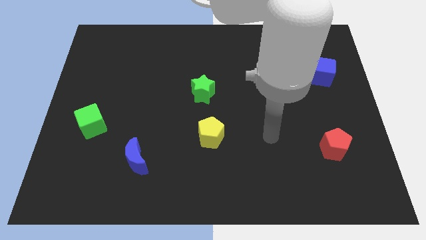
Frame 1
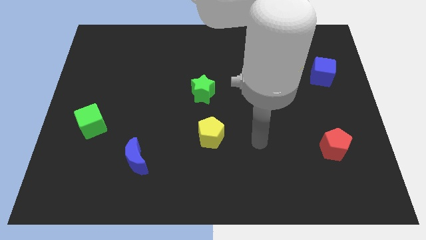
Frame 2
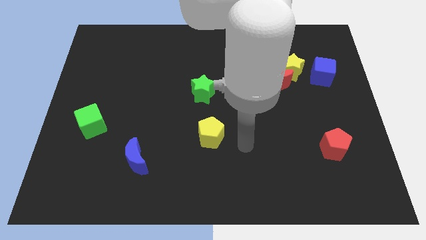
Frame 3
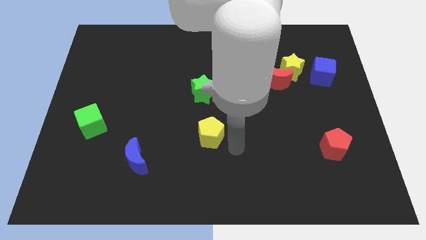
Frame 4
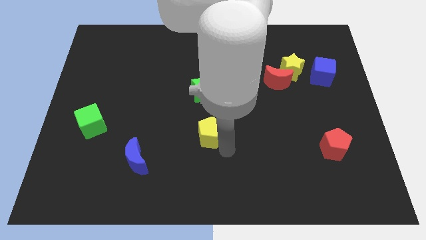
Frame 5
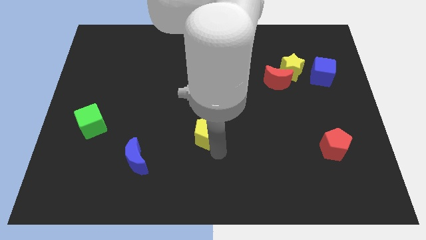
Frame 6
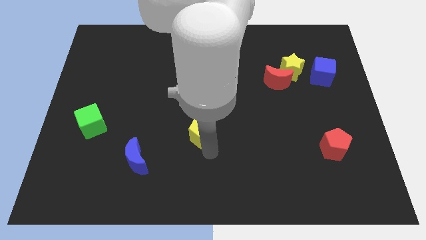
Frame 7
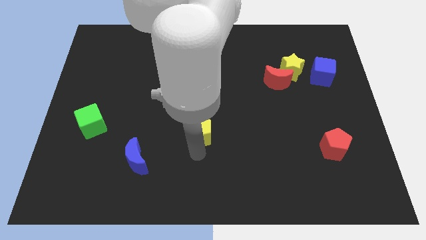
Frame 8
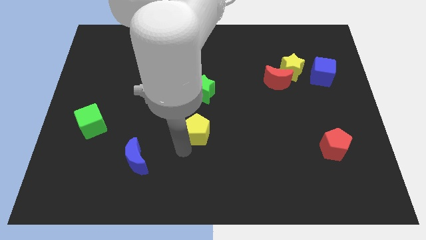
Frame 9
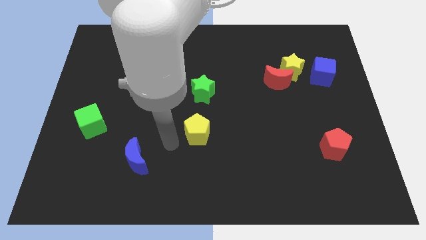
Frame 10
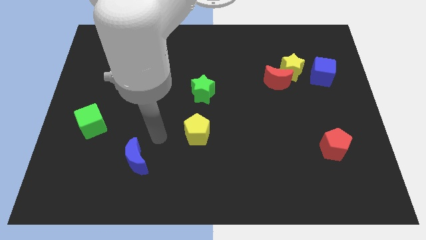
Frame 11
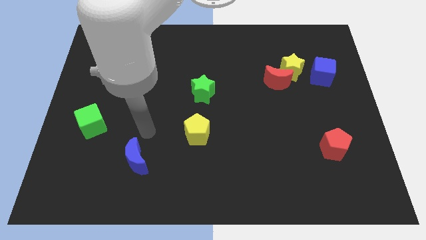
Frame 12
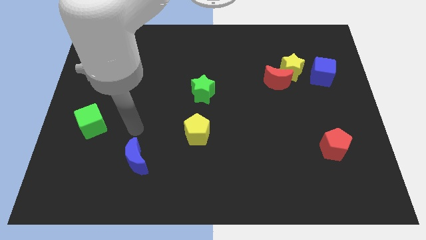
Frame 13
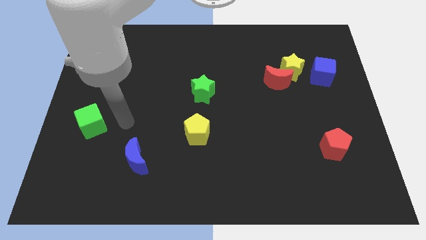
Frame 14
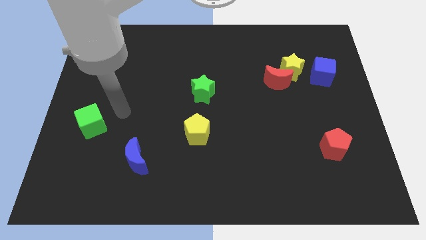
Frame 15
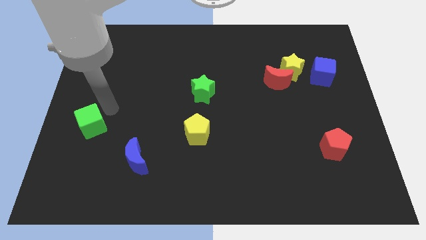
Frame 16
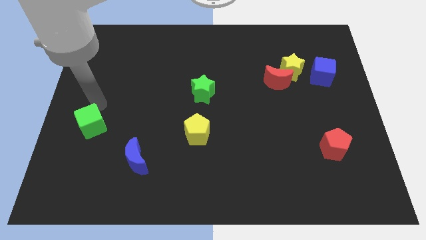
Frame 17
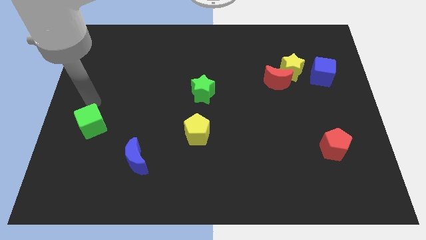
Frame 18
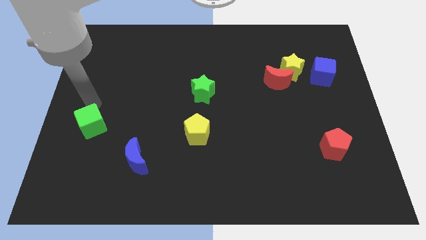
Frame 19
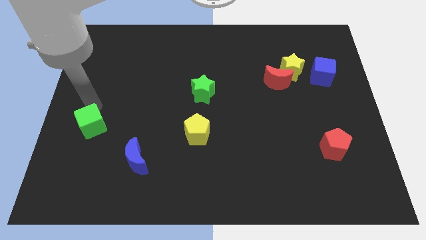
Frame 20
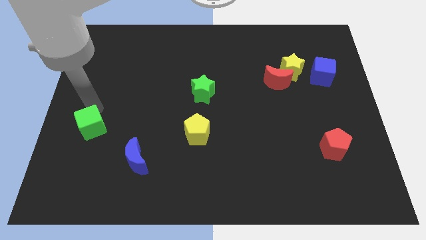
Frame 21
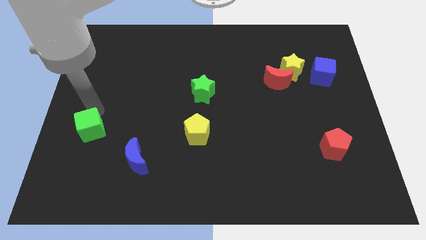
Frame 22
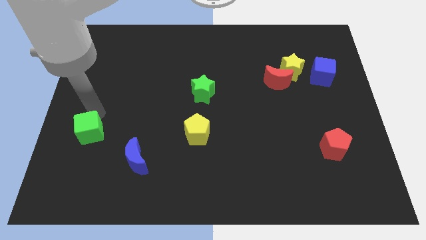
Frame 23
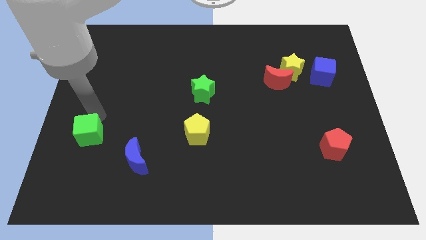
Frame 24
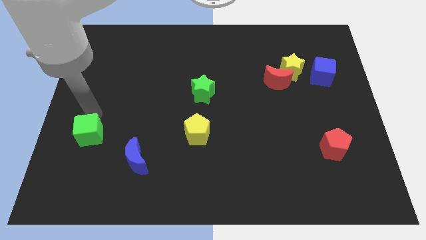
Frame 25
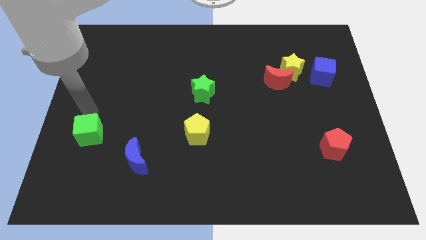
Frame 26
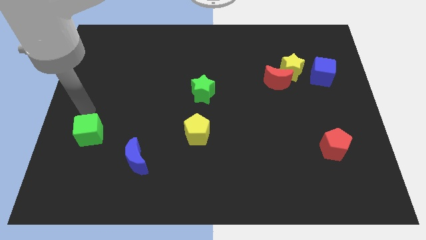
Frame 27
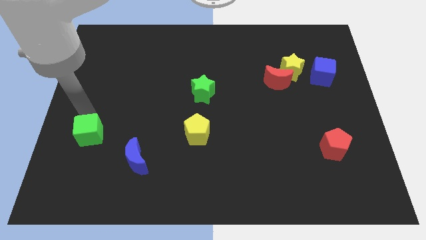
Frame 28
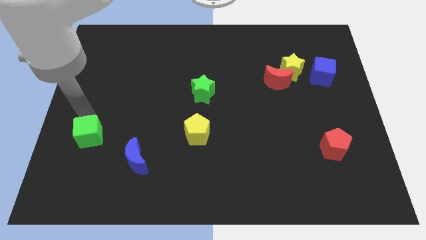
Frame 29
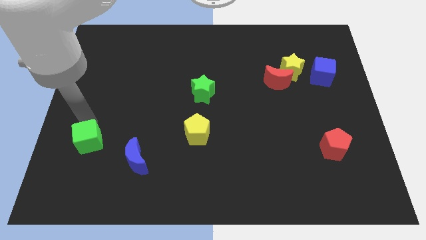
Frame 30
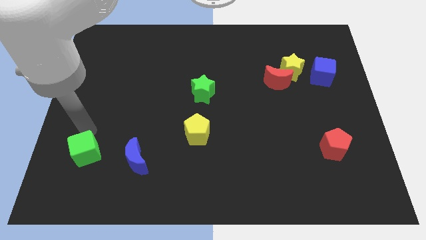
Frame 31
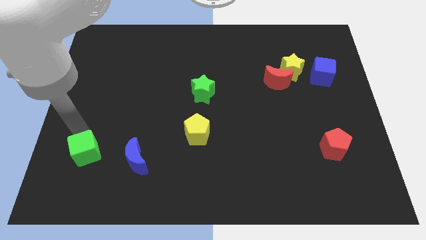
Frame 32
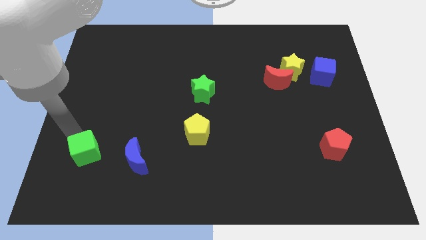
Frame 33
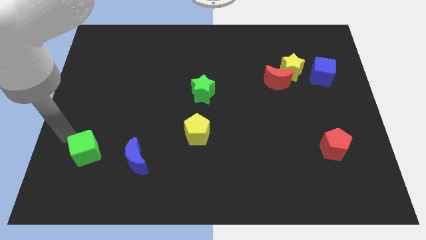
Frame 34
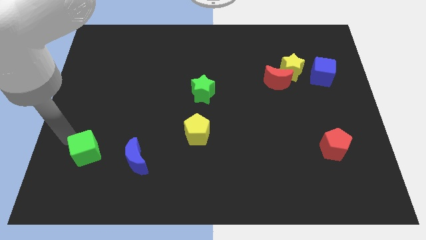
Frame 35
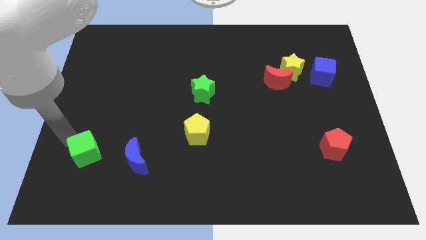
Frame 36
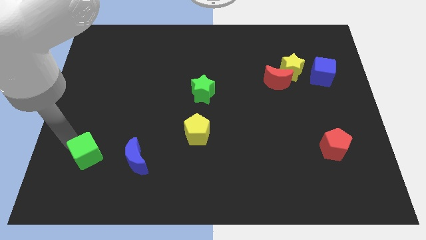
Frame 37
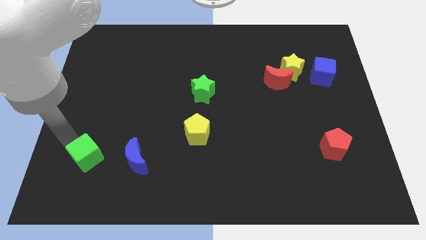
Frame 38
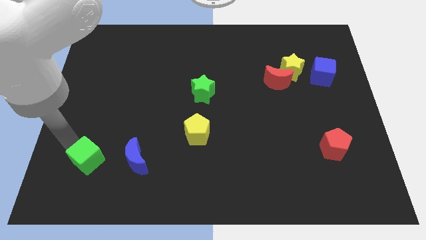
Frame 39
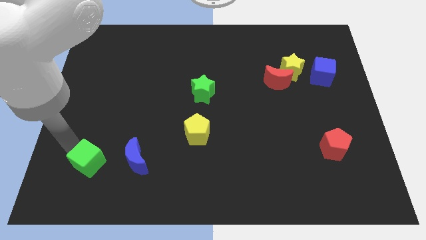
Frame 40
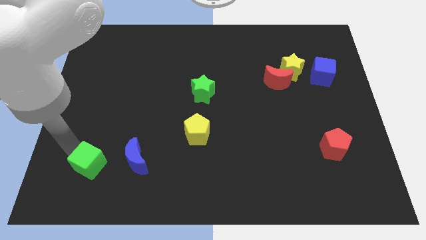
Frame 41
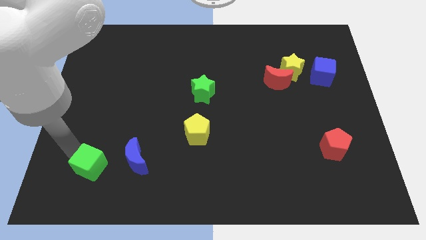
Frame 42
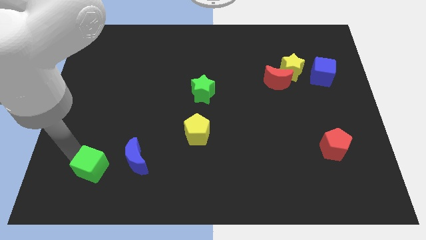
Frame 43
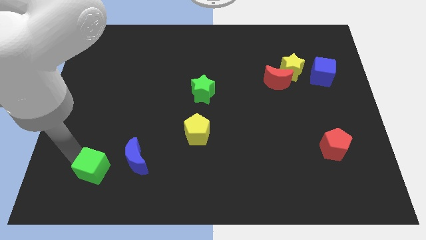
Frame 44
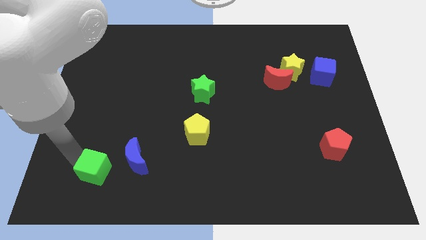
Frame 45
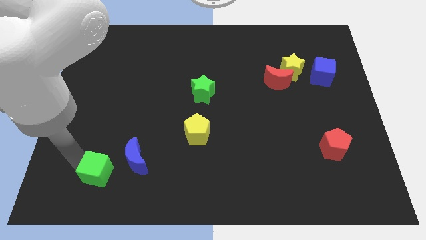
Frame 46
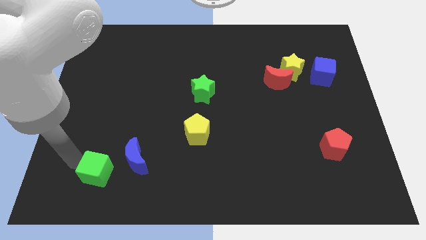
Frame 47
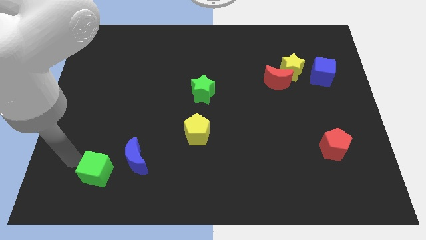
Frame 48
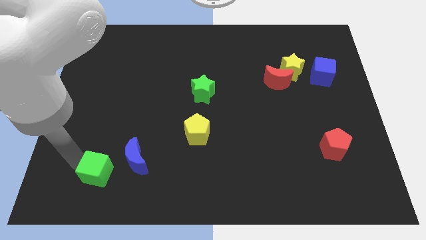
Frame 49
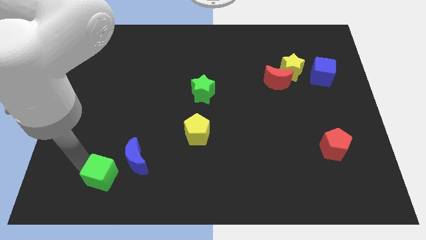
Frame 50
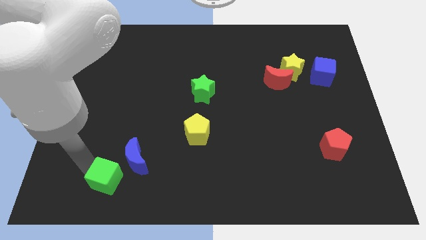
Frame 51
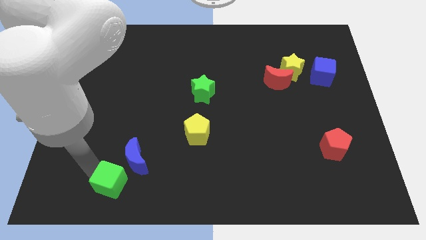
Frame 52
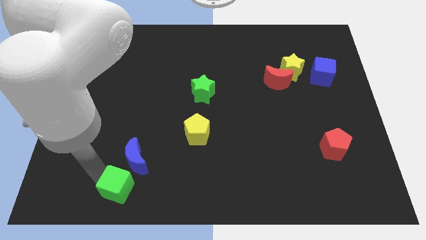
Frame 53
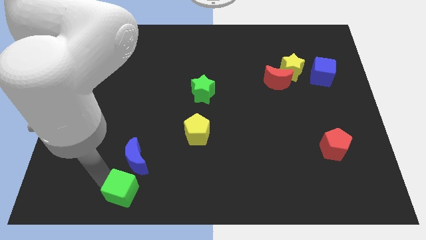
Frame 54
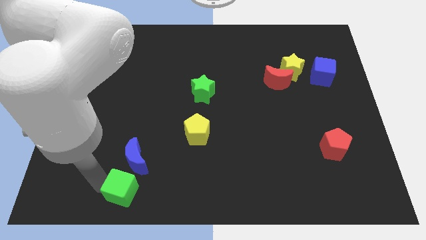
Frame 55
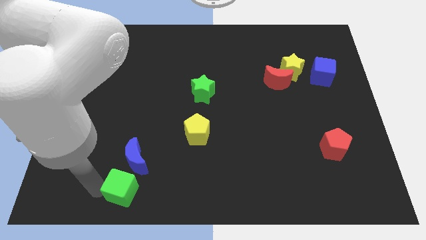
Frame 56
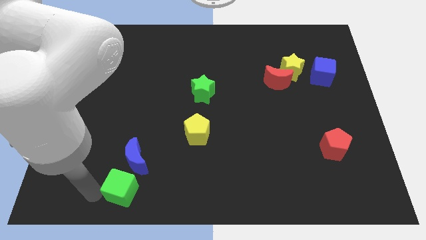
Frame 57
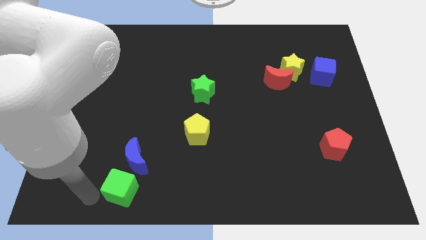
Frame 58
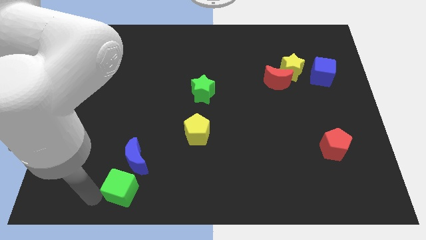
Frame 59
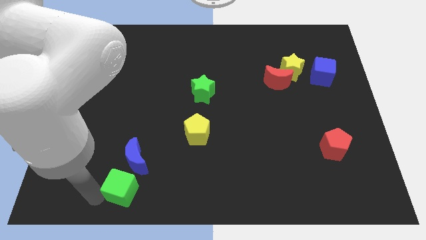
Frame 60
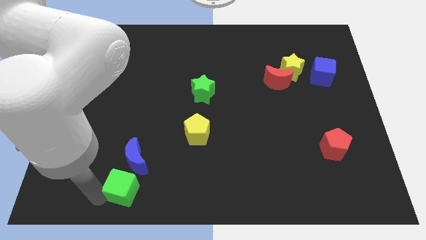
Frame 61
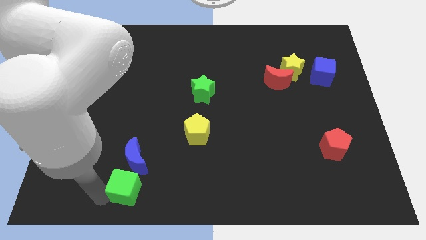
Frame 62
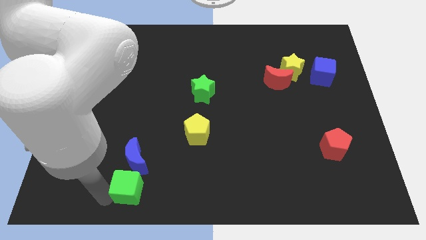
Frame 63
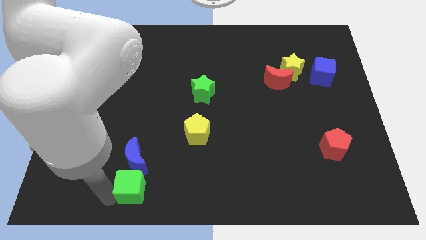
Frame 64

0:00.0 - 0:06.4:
slide the green cube to the bottom right side of the blue moon
